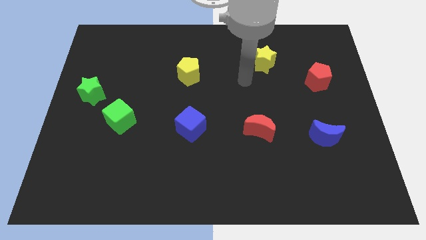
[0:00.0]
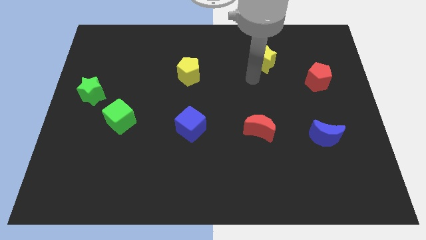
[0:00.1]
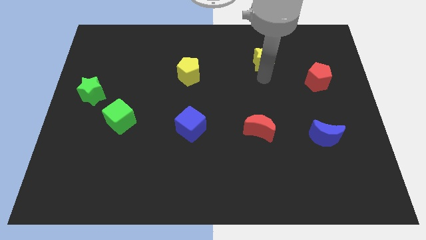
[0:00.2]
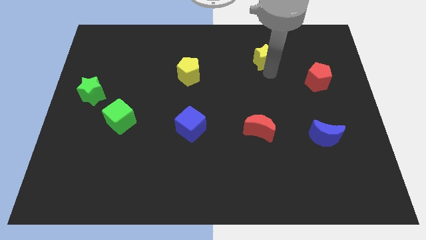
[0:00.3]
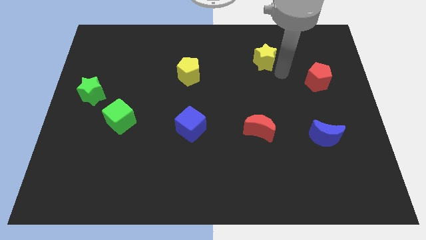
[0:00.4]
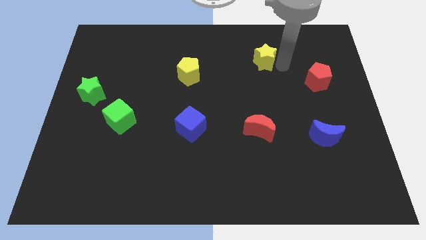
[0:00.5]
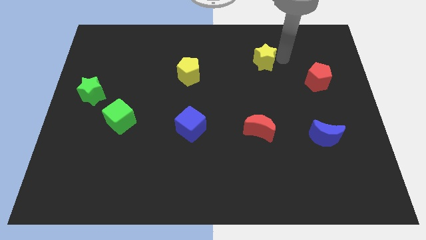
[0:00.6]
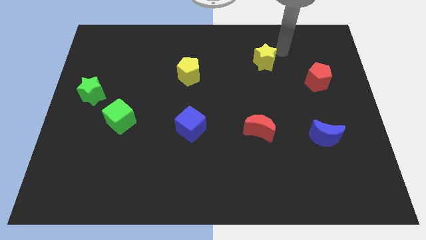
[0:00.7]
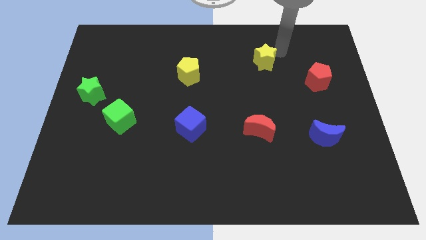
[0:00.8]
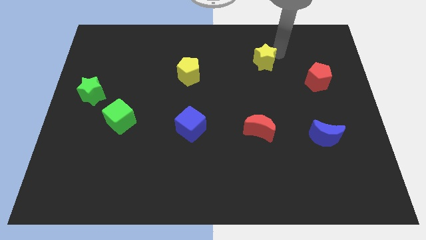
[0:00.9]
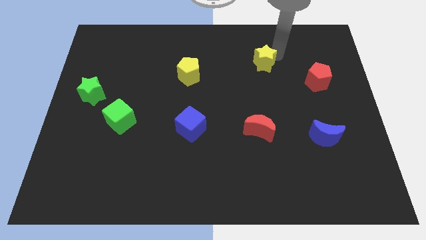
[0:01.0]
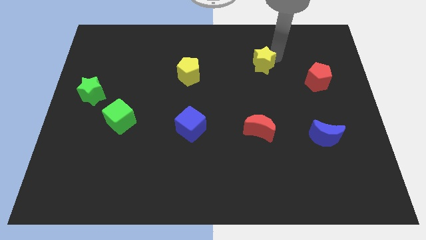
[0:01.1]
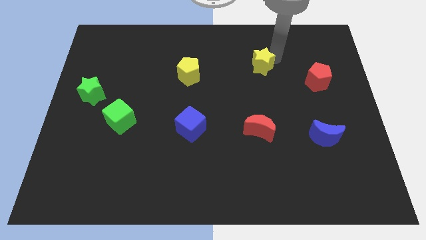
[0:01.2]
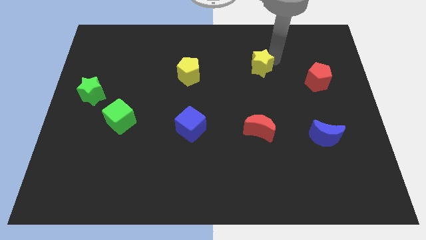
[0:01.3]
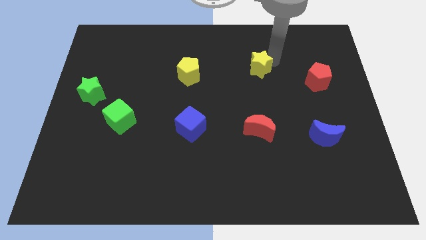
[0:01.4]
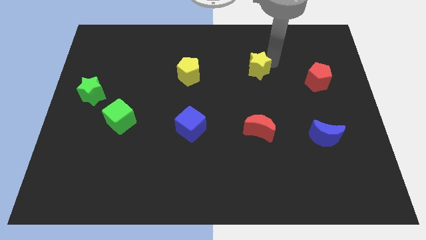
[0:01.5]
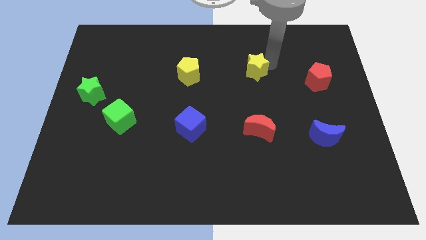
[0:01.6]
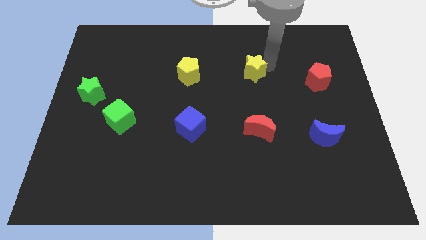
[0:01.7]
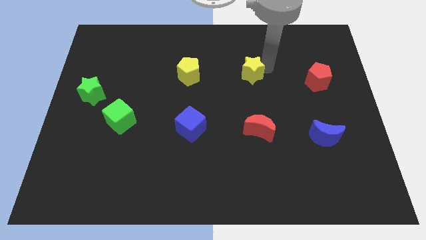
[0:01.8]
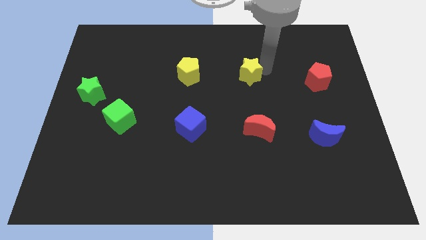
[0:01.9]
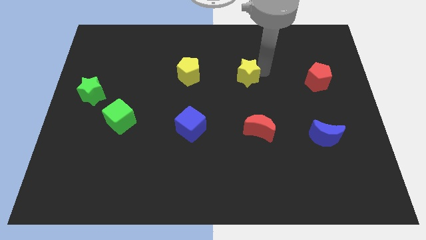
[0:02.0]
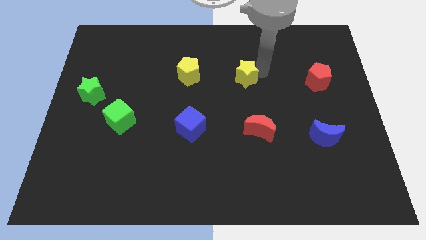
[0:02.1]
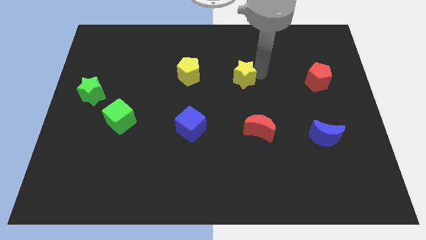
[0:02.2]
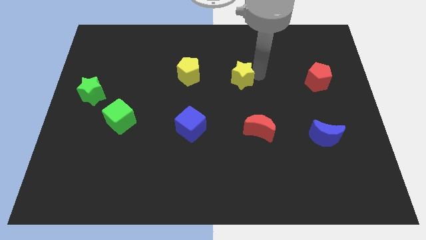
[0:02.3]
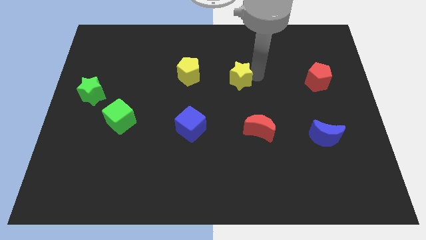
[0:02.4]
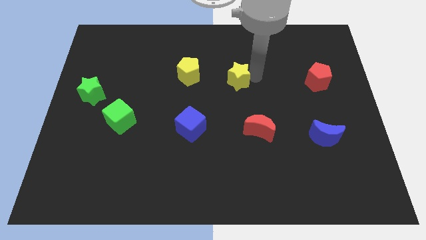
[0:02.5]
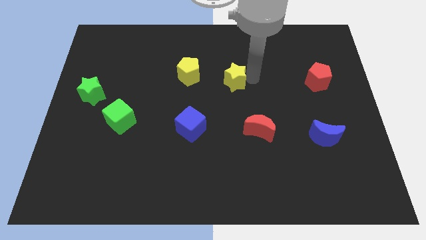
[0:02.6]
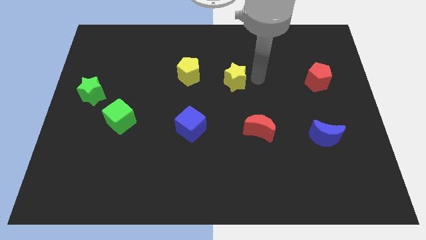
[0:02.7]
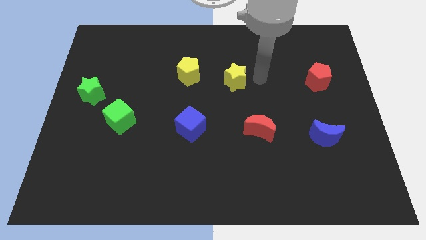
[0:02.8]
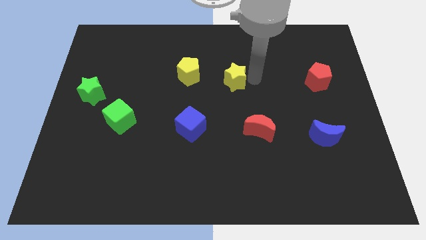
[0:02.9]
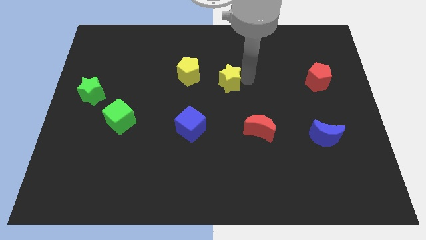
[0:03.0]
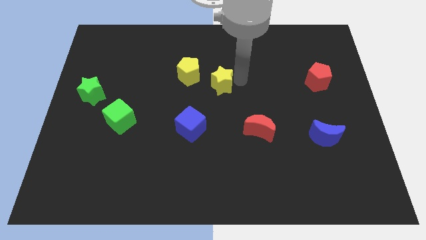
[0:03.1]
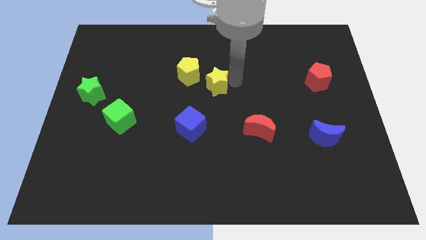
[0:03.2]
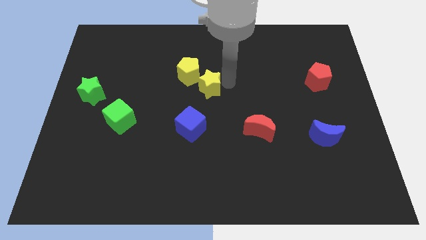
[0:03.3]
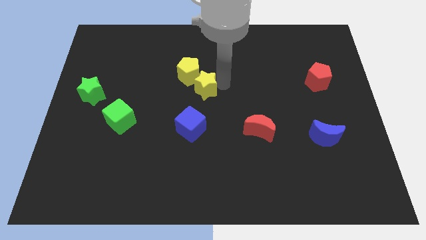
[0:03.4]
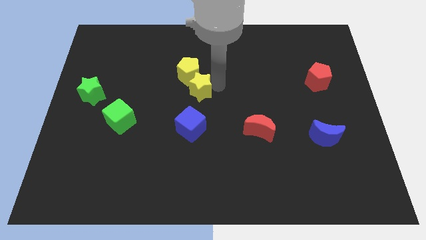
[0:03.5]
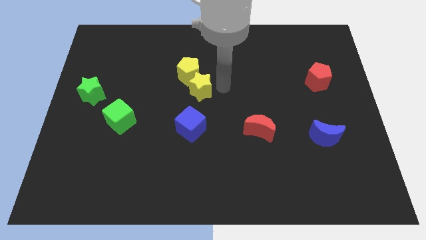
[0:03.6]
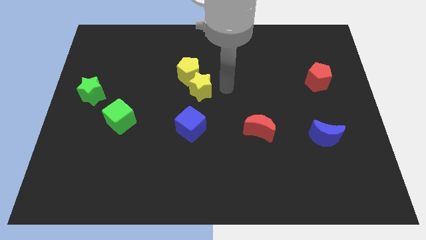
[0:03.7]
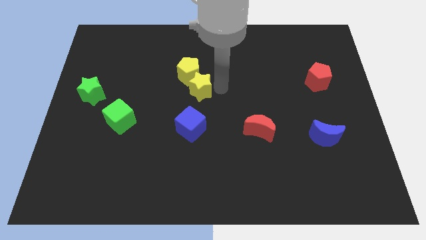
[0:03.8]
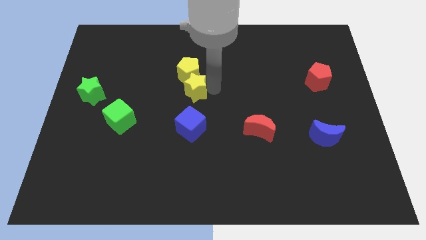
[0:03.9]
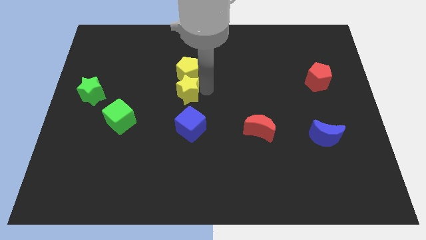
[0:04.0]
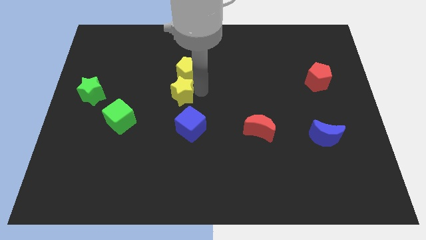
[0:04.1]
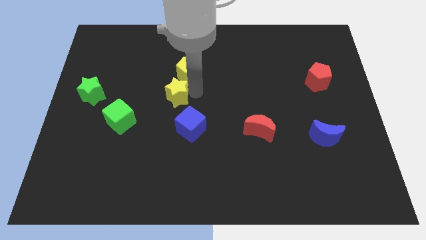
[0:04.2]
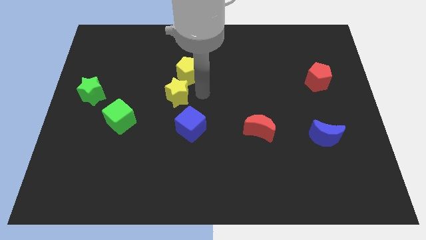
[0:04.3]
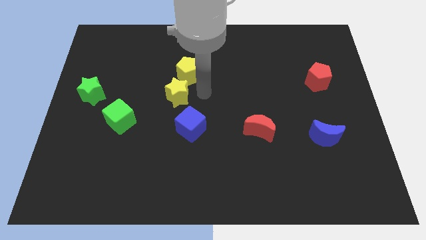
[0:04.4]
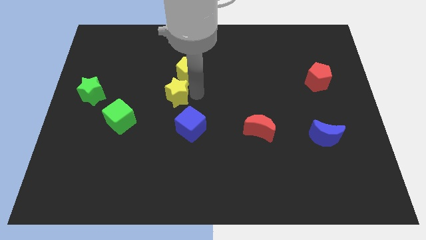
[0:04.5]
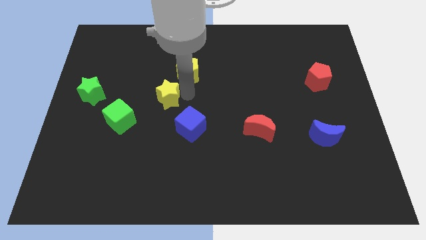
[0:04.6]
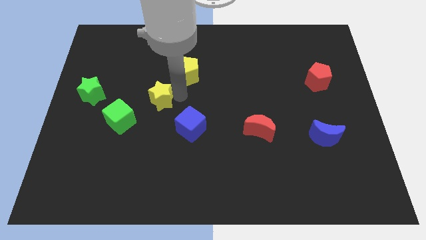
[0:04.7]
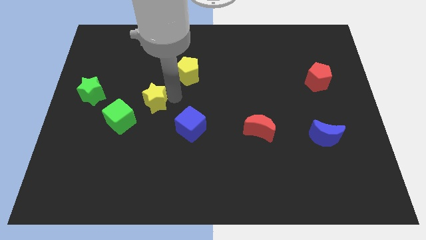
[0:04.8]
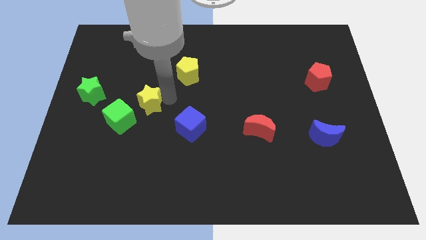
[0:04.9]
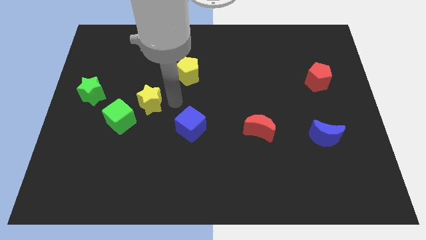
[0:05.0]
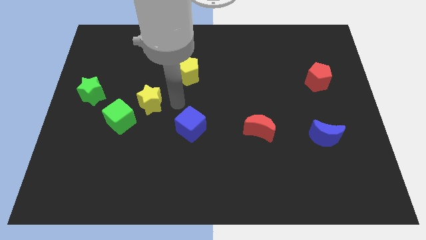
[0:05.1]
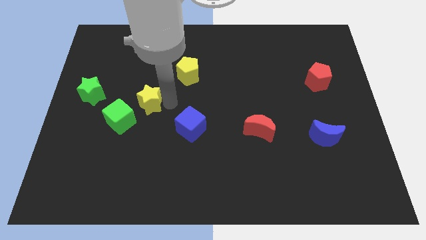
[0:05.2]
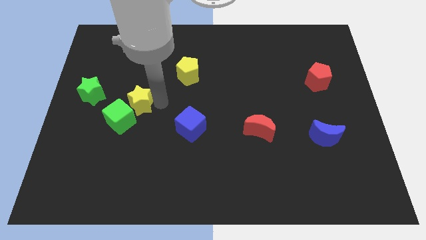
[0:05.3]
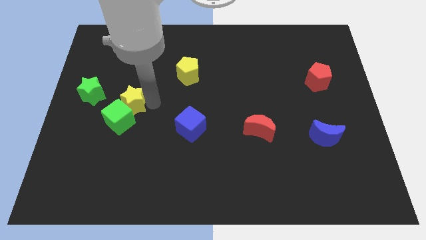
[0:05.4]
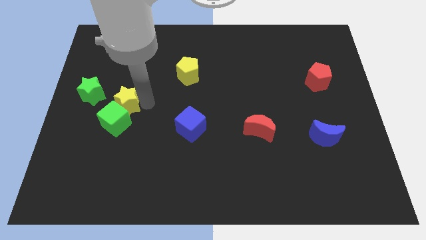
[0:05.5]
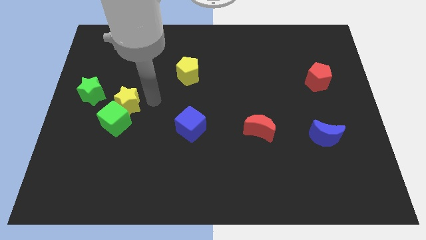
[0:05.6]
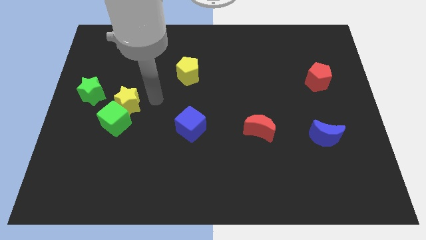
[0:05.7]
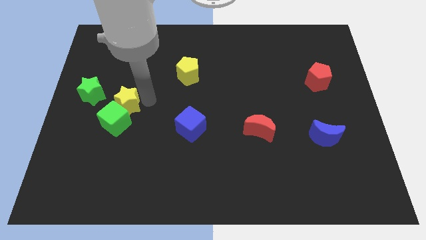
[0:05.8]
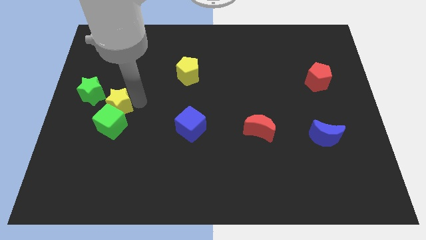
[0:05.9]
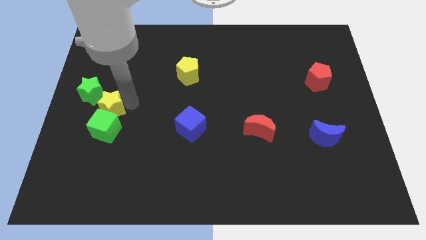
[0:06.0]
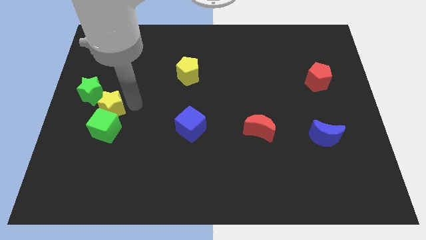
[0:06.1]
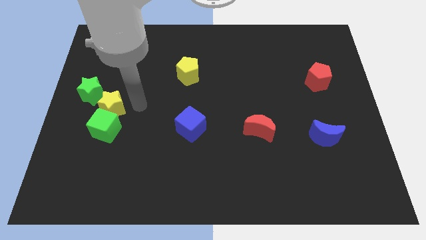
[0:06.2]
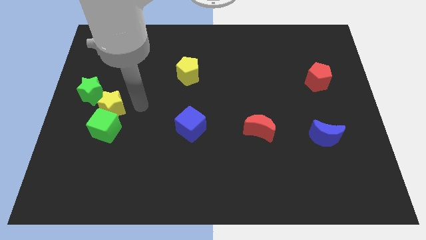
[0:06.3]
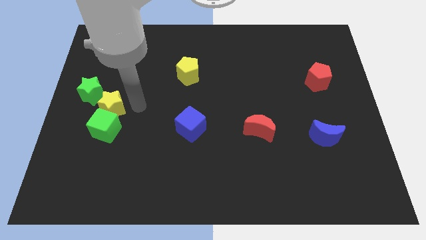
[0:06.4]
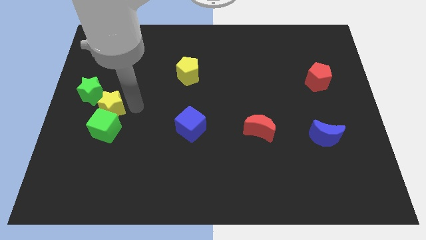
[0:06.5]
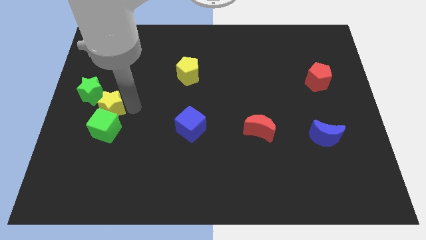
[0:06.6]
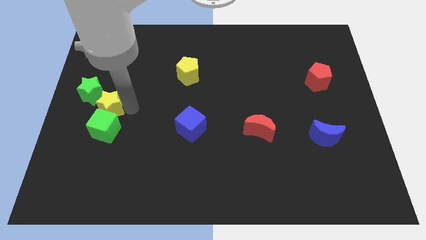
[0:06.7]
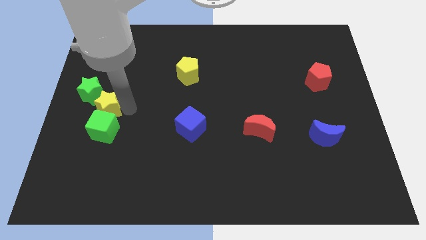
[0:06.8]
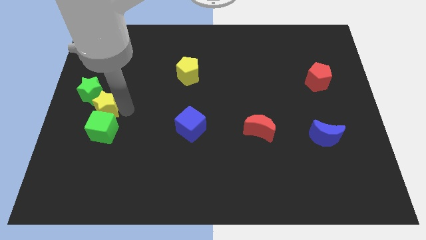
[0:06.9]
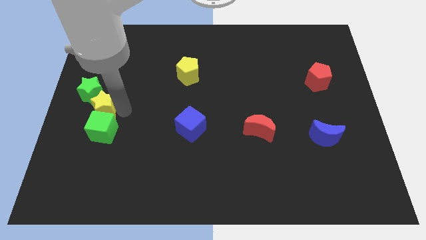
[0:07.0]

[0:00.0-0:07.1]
slide the yellow star to the left side of the board
